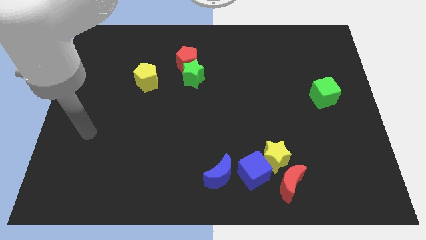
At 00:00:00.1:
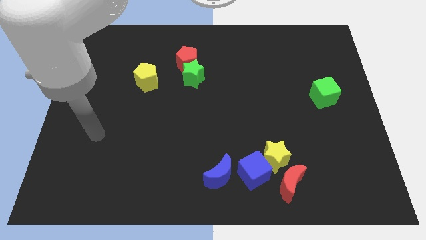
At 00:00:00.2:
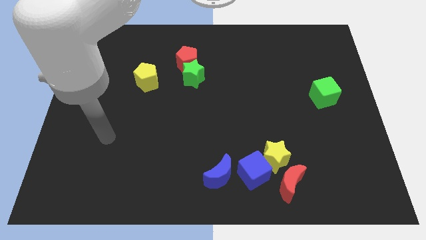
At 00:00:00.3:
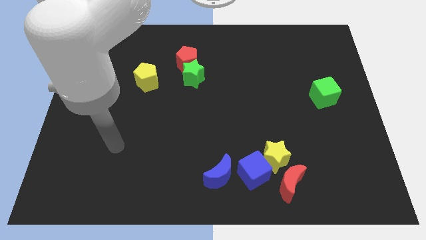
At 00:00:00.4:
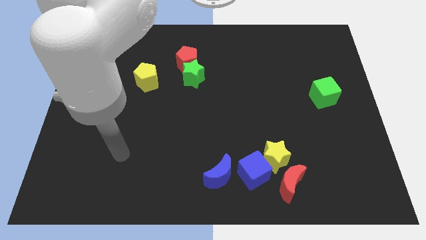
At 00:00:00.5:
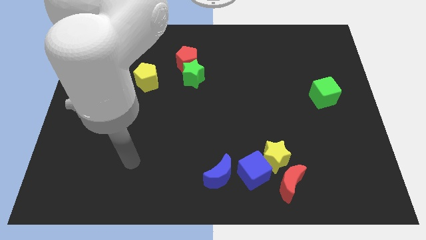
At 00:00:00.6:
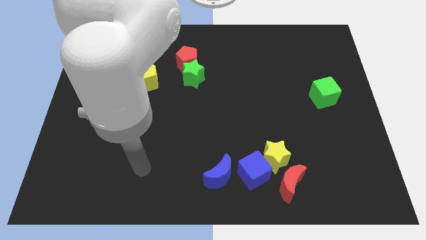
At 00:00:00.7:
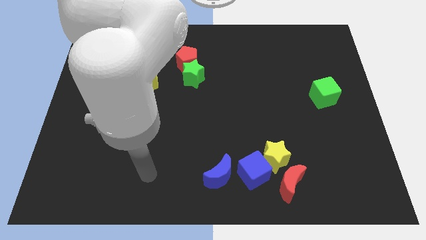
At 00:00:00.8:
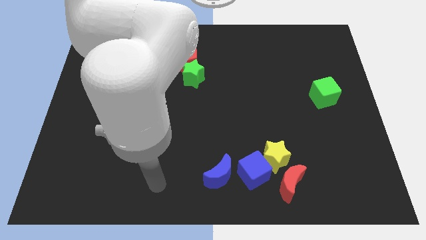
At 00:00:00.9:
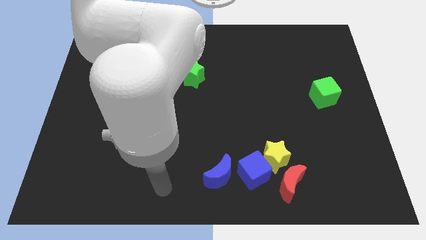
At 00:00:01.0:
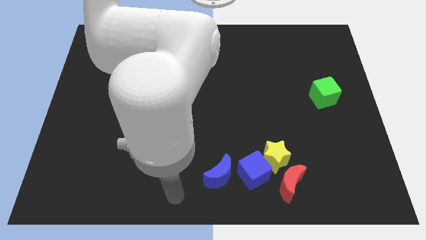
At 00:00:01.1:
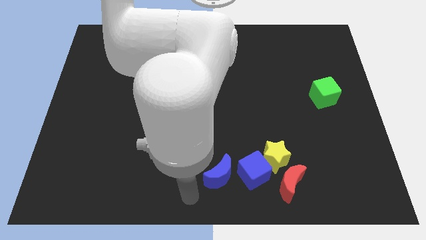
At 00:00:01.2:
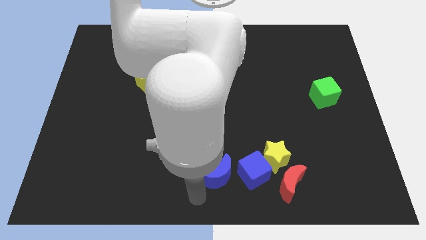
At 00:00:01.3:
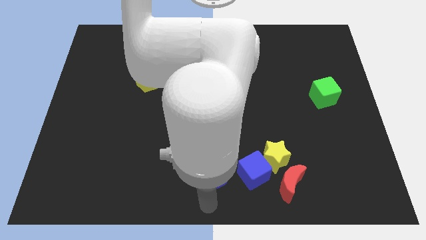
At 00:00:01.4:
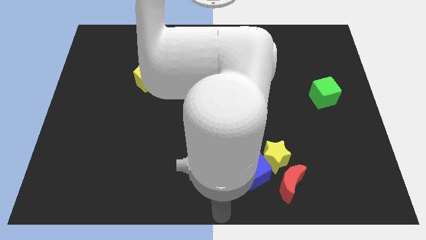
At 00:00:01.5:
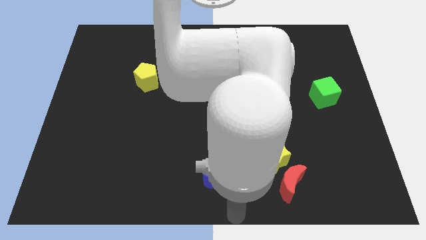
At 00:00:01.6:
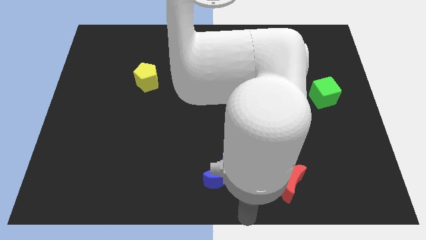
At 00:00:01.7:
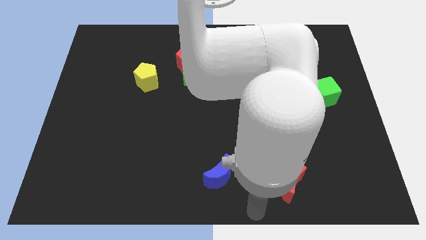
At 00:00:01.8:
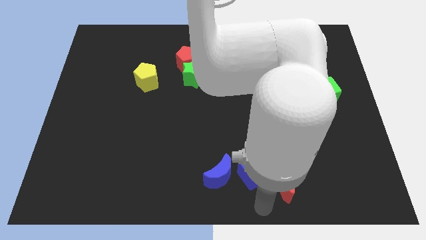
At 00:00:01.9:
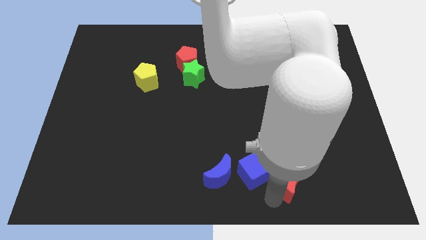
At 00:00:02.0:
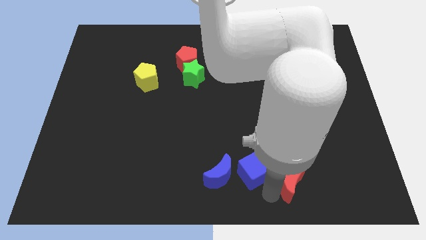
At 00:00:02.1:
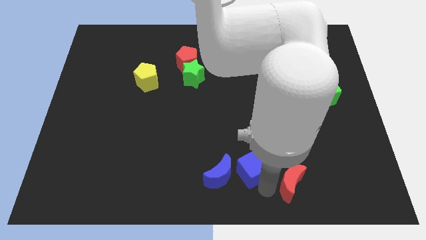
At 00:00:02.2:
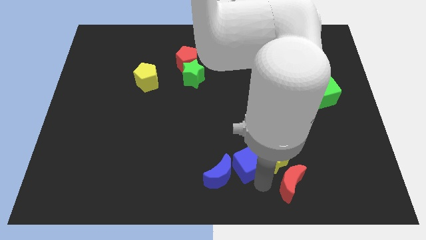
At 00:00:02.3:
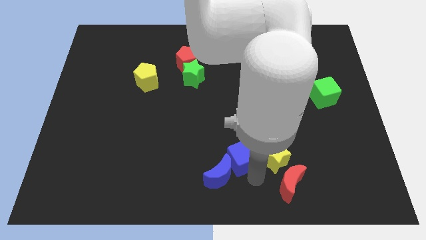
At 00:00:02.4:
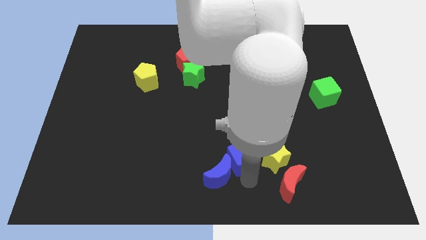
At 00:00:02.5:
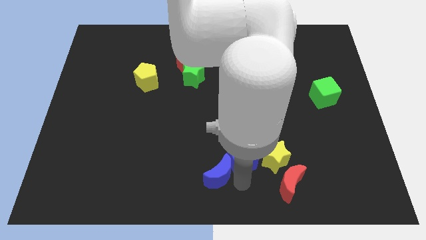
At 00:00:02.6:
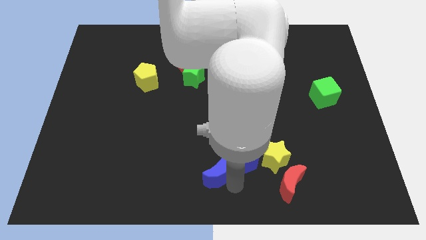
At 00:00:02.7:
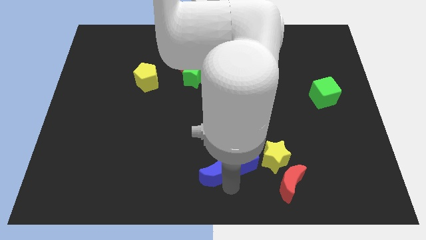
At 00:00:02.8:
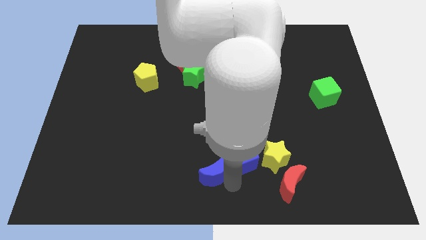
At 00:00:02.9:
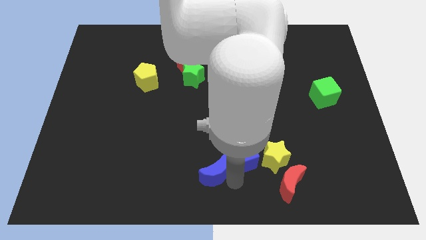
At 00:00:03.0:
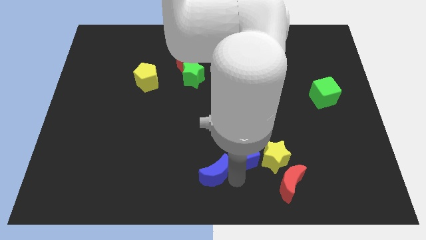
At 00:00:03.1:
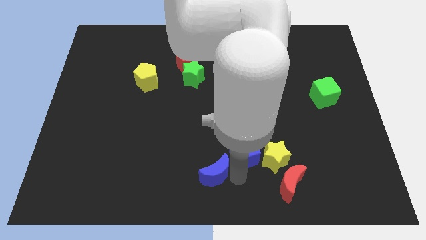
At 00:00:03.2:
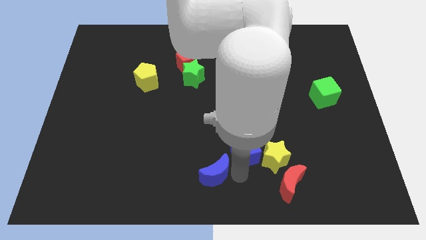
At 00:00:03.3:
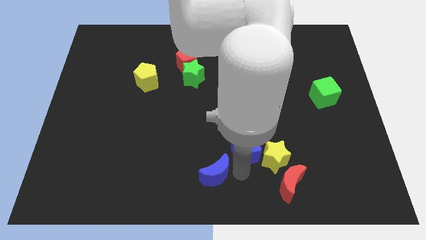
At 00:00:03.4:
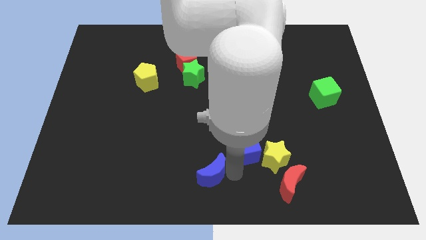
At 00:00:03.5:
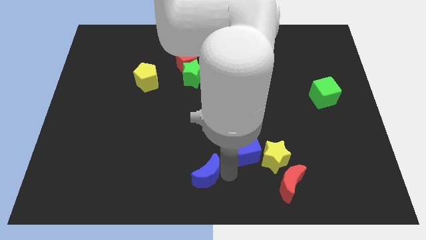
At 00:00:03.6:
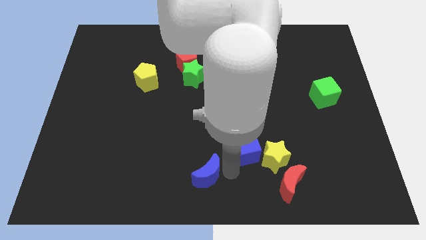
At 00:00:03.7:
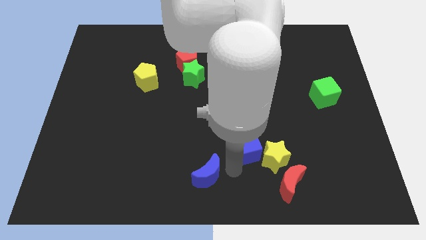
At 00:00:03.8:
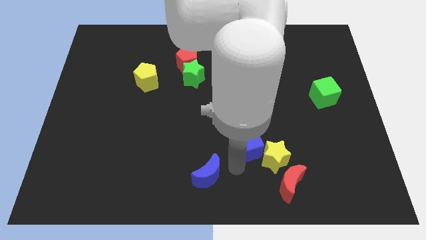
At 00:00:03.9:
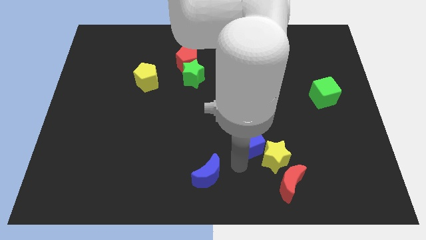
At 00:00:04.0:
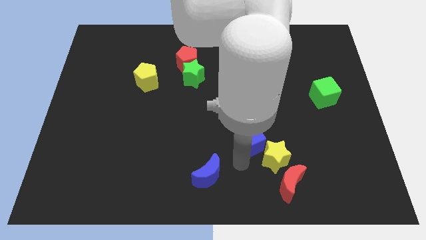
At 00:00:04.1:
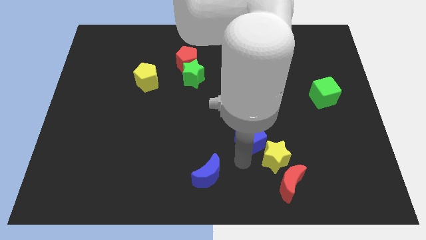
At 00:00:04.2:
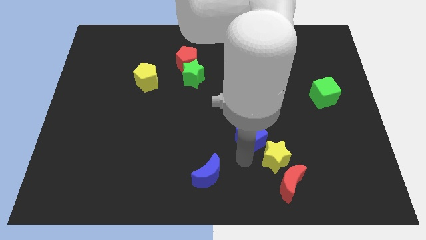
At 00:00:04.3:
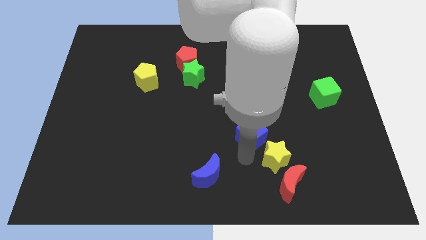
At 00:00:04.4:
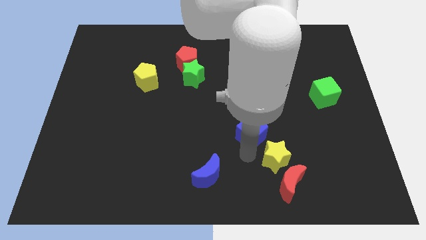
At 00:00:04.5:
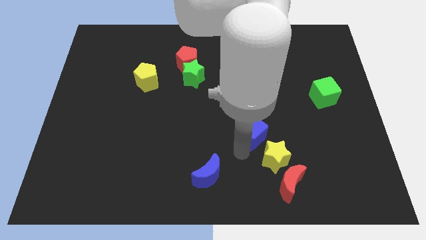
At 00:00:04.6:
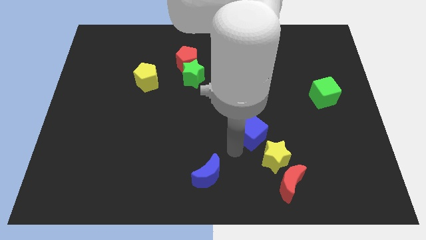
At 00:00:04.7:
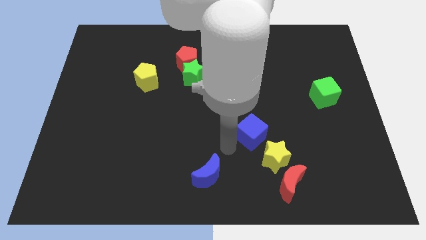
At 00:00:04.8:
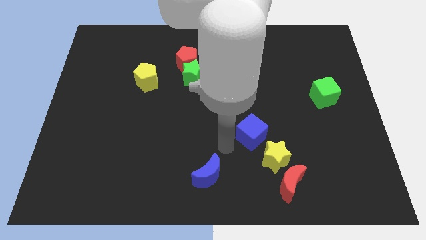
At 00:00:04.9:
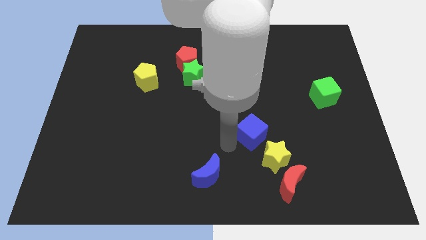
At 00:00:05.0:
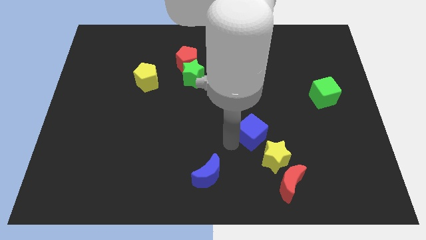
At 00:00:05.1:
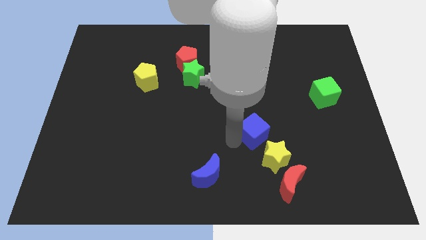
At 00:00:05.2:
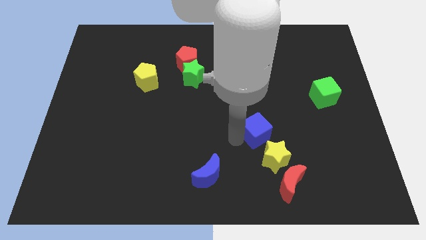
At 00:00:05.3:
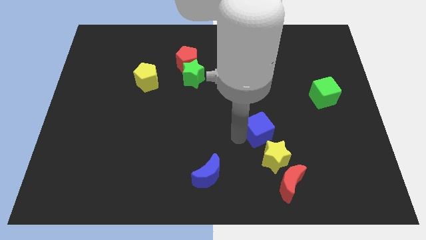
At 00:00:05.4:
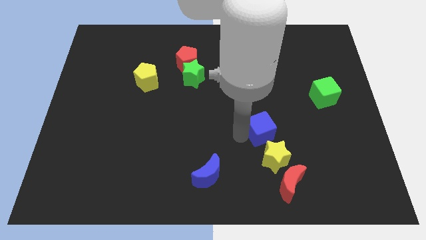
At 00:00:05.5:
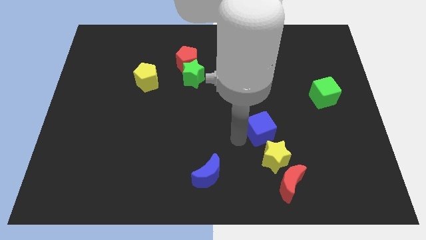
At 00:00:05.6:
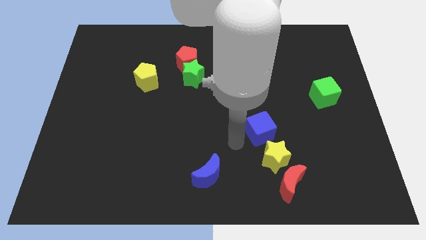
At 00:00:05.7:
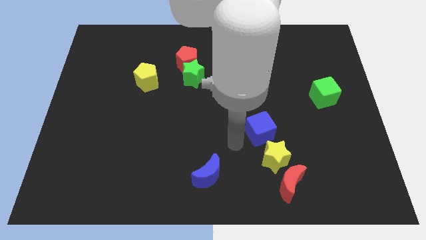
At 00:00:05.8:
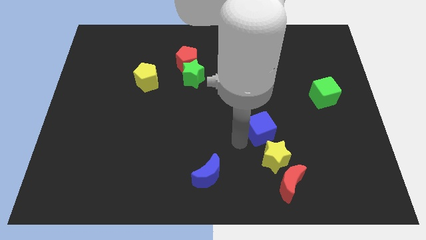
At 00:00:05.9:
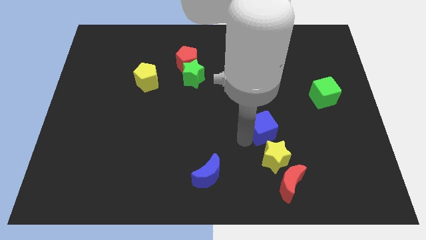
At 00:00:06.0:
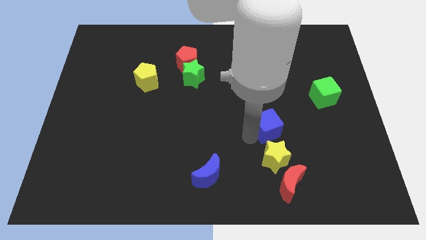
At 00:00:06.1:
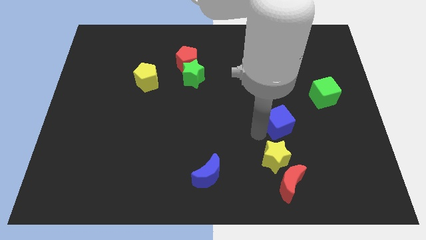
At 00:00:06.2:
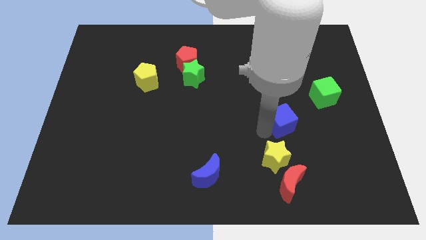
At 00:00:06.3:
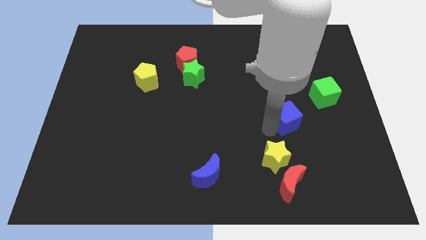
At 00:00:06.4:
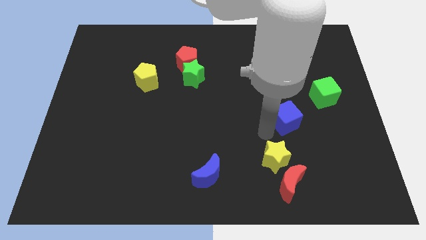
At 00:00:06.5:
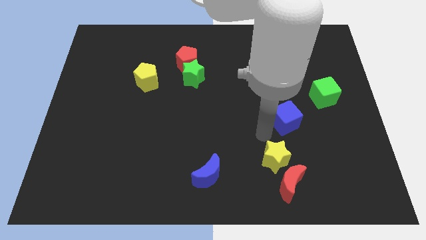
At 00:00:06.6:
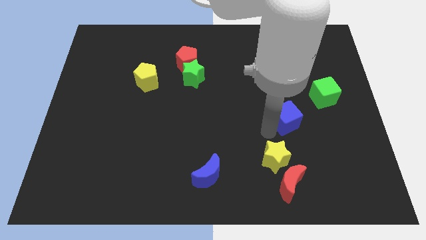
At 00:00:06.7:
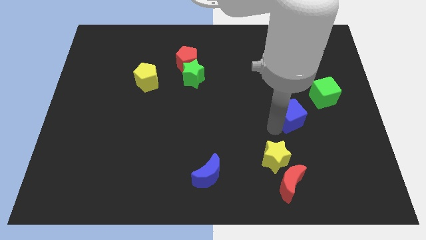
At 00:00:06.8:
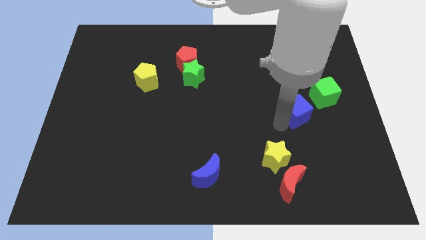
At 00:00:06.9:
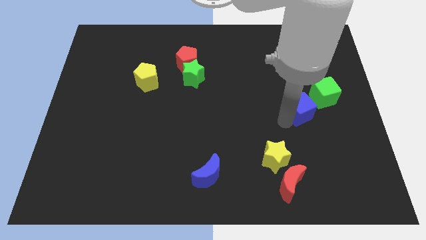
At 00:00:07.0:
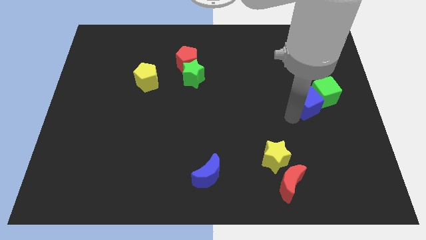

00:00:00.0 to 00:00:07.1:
push the blue cube towards the green cube

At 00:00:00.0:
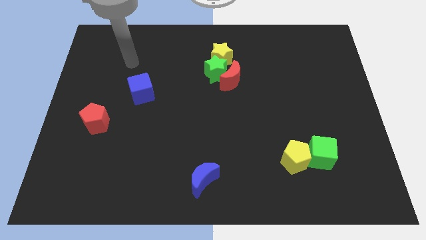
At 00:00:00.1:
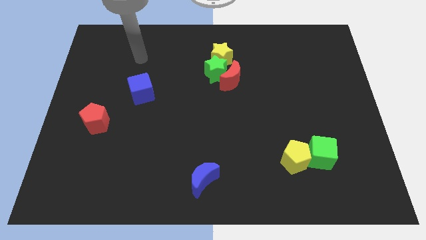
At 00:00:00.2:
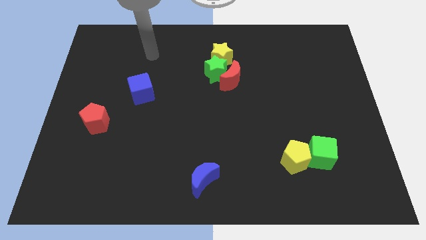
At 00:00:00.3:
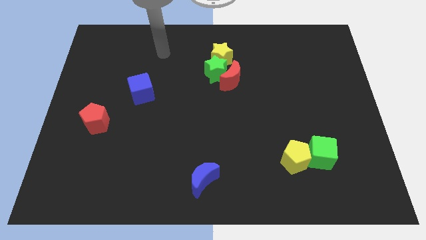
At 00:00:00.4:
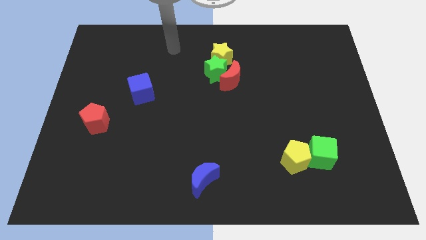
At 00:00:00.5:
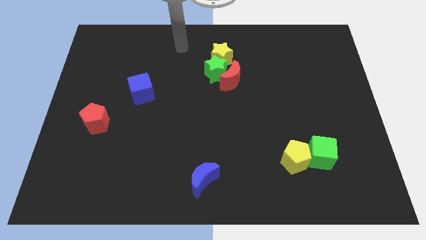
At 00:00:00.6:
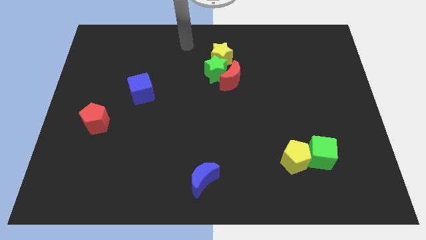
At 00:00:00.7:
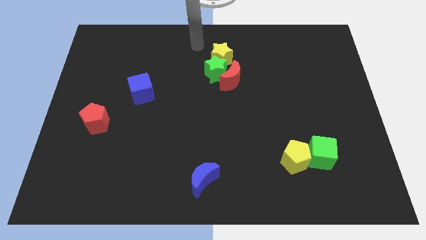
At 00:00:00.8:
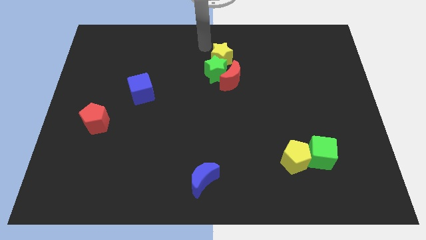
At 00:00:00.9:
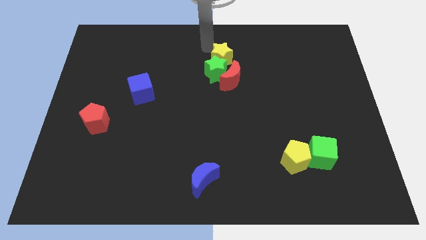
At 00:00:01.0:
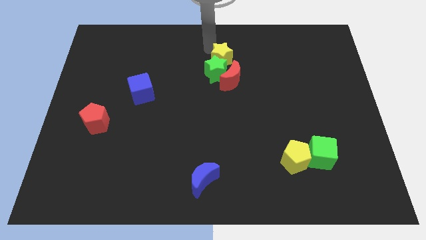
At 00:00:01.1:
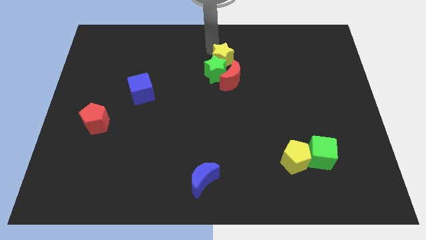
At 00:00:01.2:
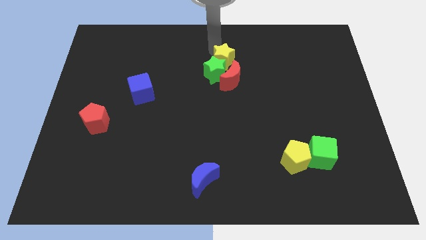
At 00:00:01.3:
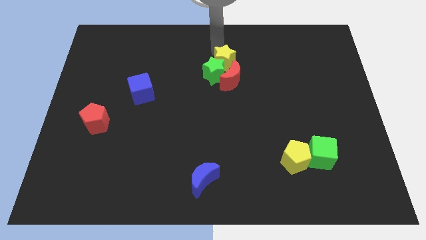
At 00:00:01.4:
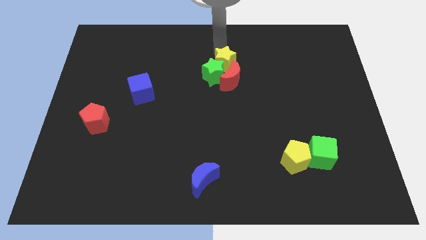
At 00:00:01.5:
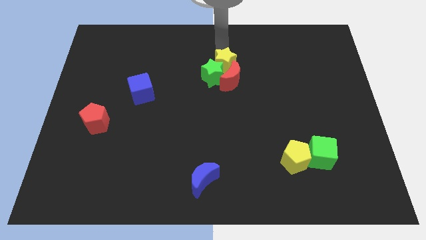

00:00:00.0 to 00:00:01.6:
move the yellow star to the red moon
